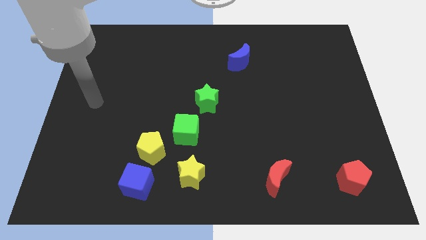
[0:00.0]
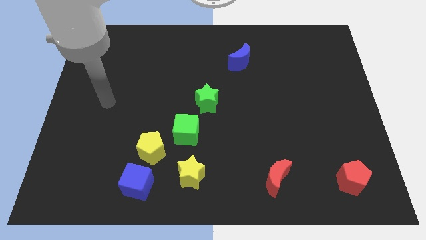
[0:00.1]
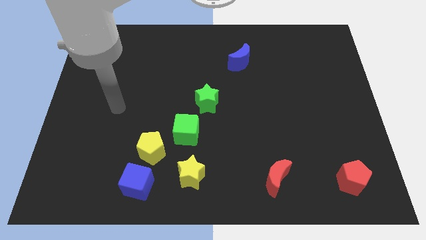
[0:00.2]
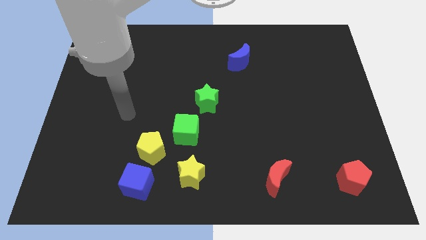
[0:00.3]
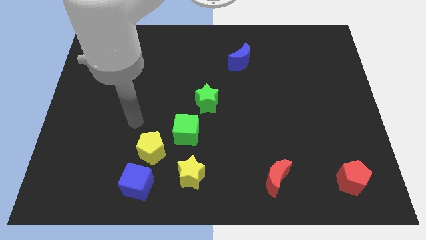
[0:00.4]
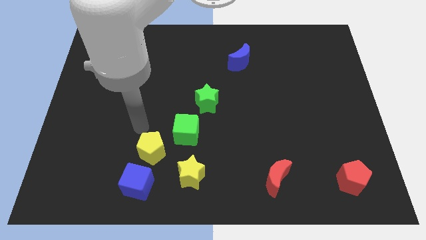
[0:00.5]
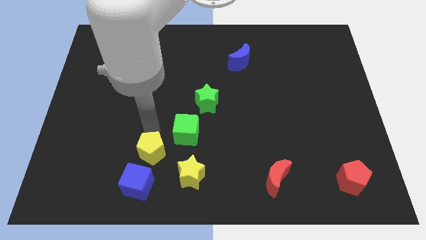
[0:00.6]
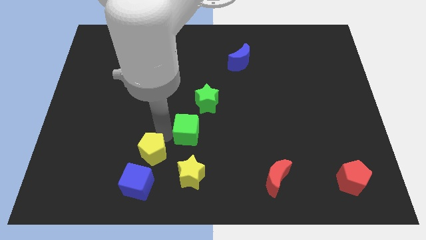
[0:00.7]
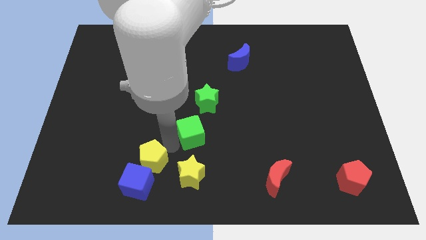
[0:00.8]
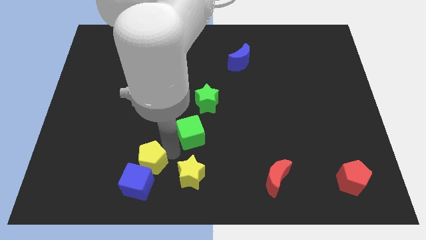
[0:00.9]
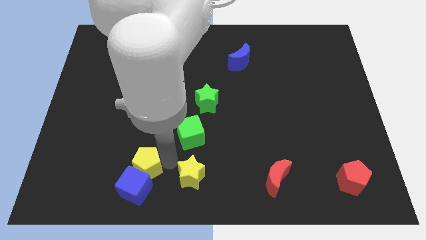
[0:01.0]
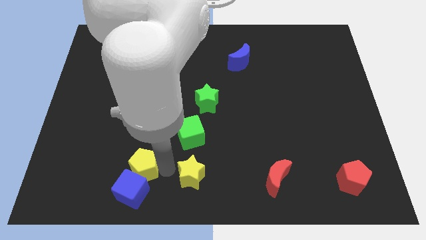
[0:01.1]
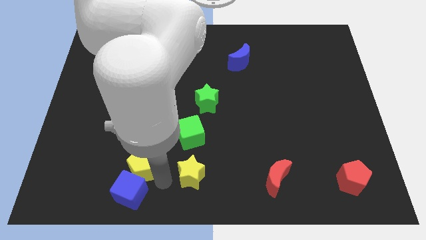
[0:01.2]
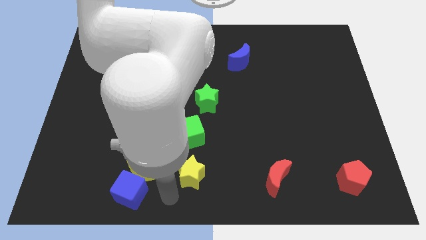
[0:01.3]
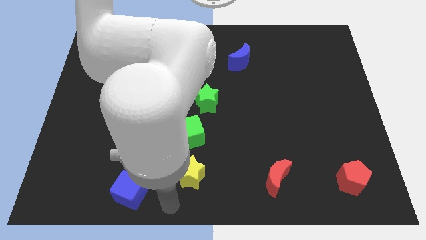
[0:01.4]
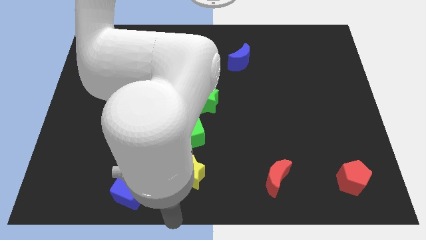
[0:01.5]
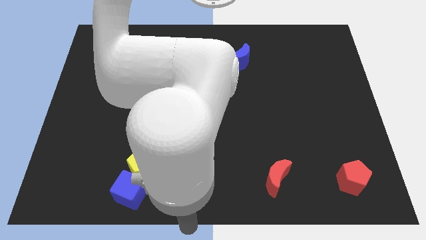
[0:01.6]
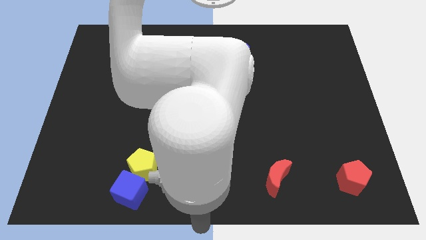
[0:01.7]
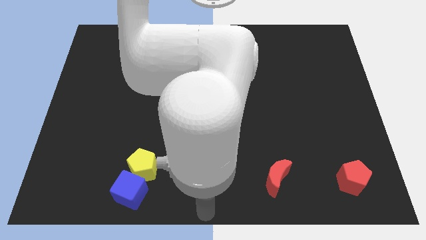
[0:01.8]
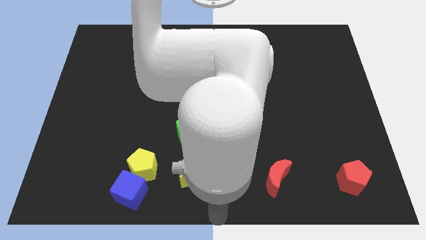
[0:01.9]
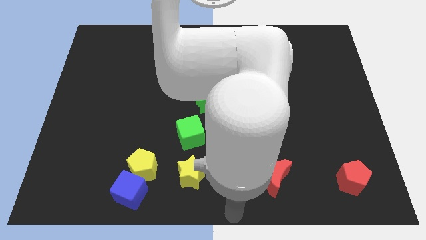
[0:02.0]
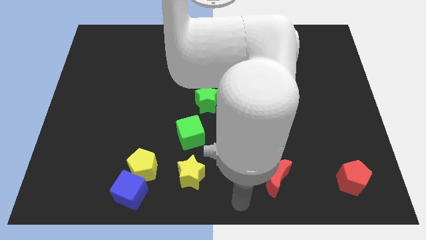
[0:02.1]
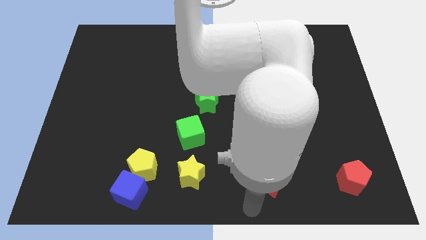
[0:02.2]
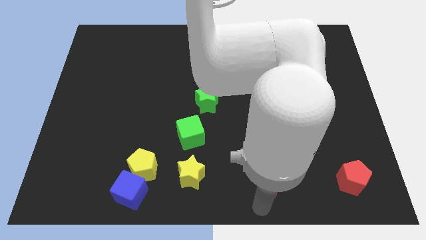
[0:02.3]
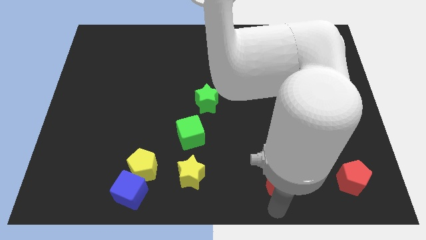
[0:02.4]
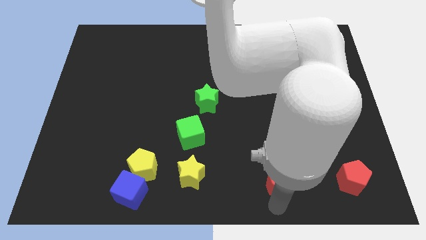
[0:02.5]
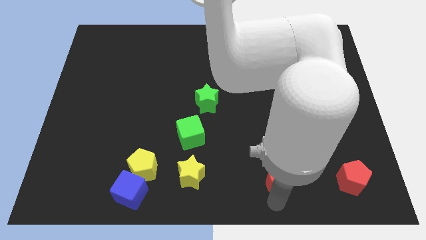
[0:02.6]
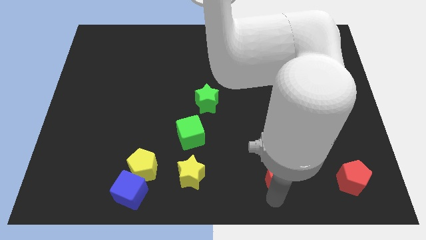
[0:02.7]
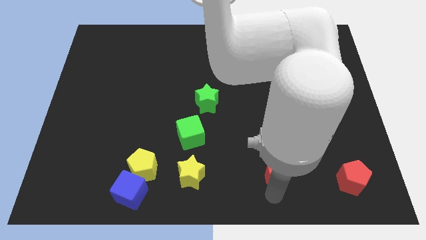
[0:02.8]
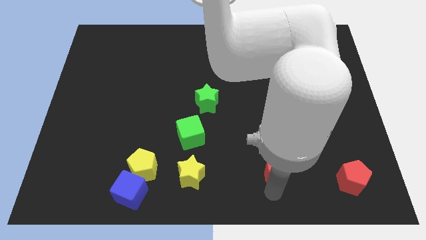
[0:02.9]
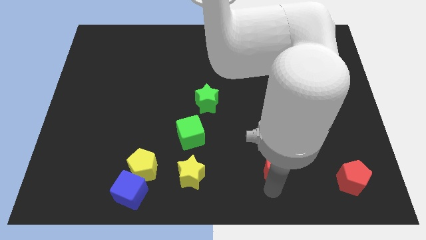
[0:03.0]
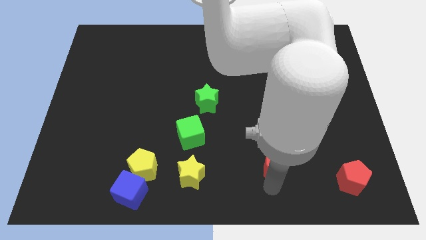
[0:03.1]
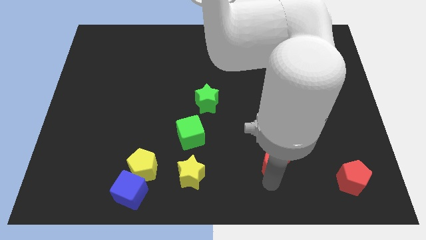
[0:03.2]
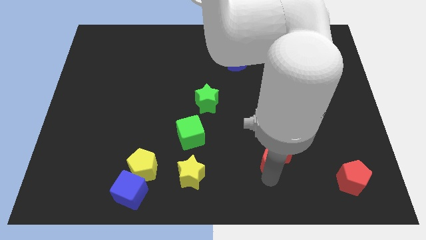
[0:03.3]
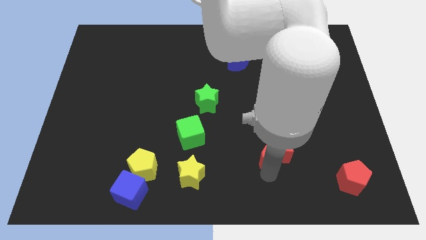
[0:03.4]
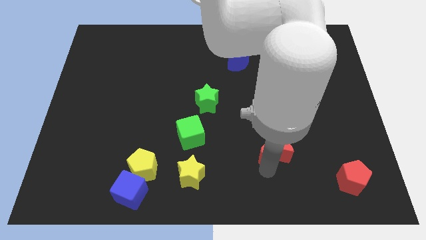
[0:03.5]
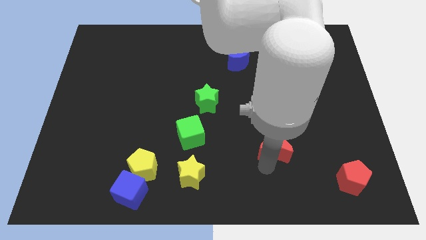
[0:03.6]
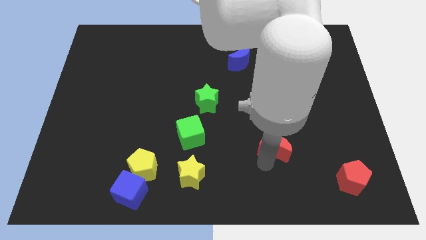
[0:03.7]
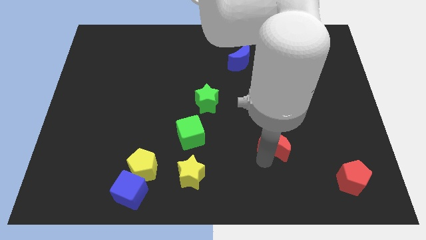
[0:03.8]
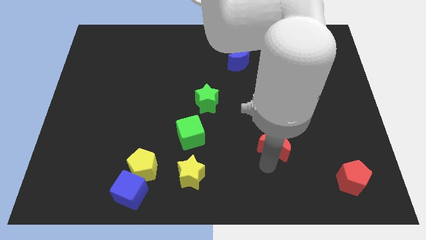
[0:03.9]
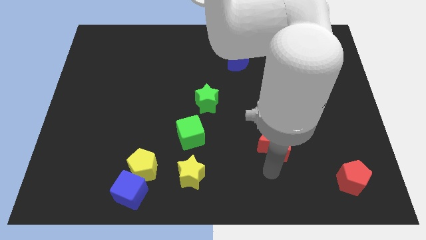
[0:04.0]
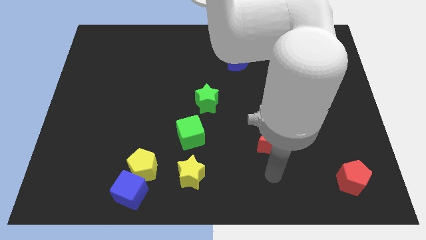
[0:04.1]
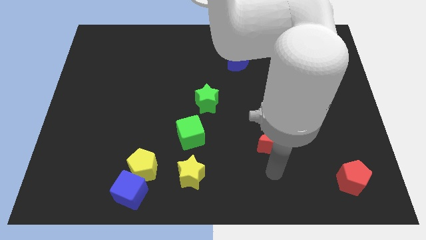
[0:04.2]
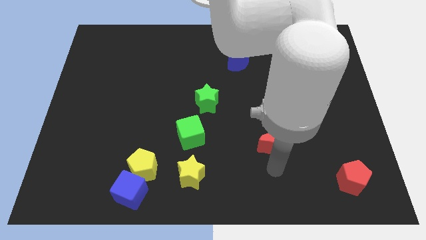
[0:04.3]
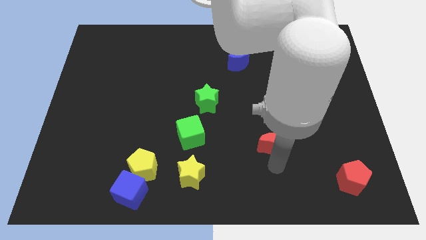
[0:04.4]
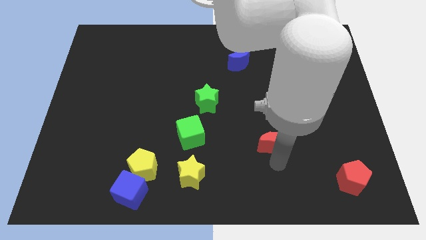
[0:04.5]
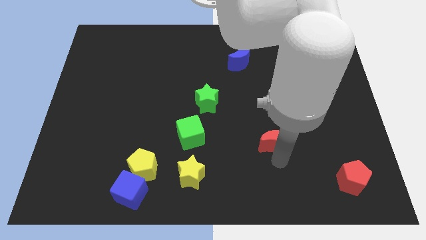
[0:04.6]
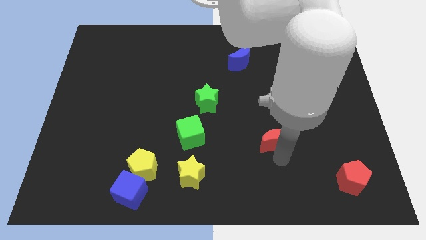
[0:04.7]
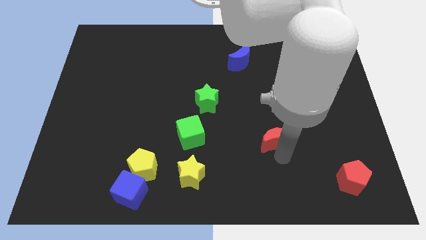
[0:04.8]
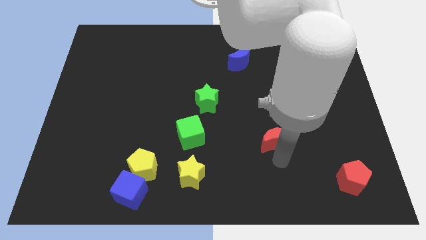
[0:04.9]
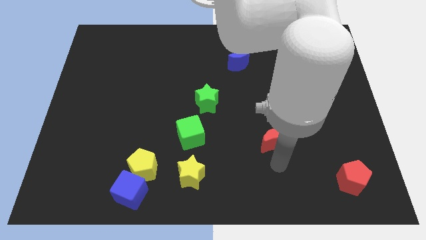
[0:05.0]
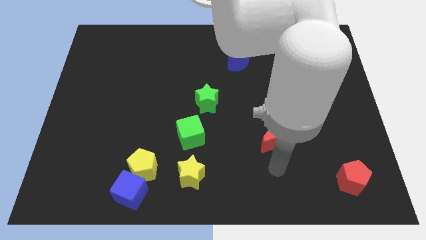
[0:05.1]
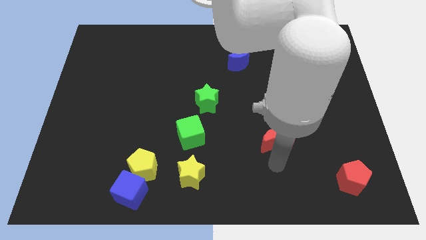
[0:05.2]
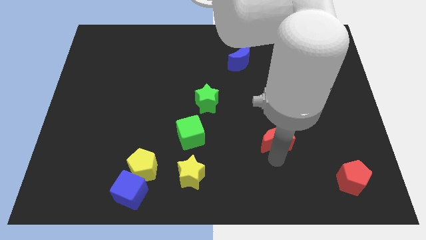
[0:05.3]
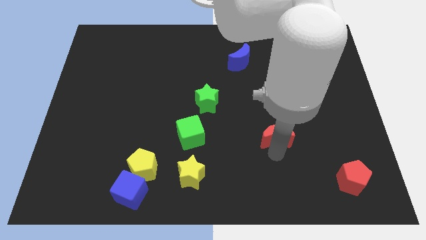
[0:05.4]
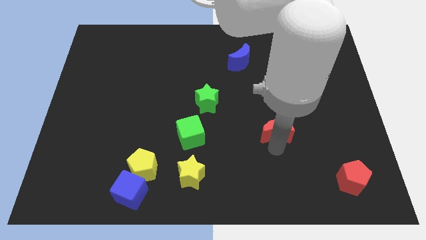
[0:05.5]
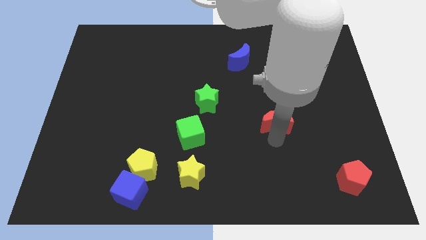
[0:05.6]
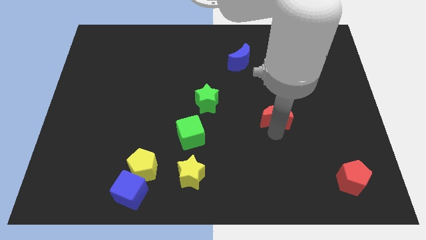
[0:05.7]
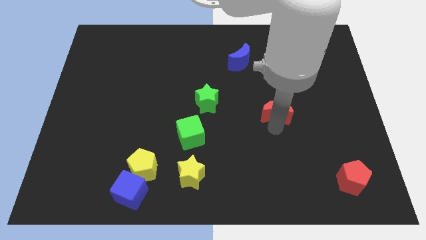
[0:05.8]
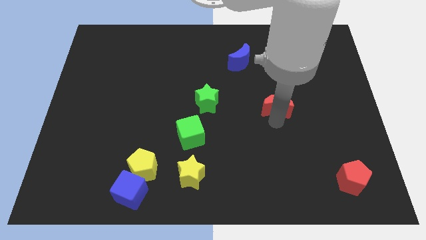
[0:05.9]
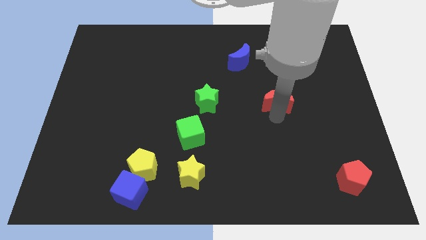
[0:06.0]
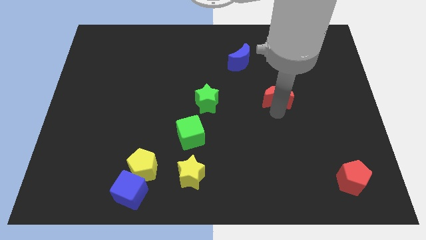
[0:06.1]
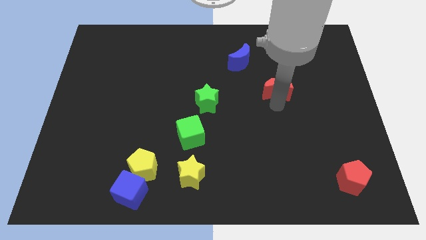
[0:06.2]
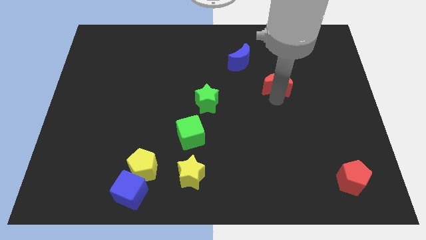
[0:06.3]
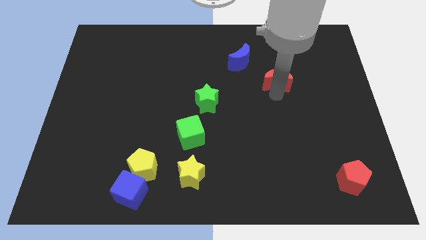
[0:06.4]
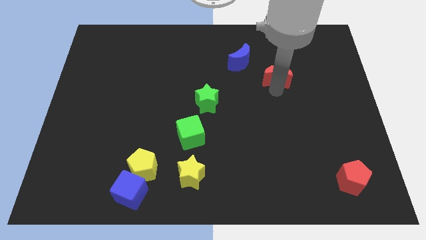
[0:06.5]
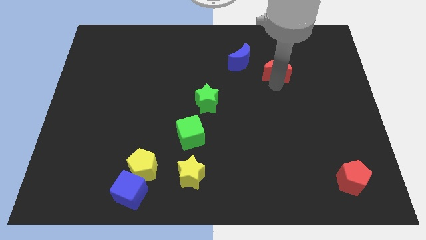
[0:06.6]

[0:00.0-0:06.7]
slide the red moon to the right of the blue moon

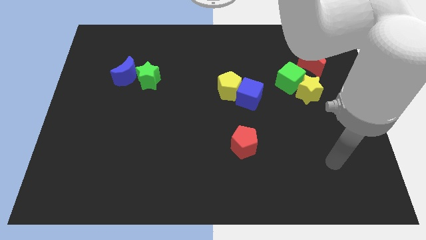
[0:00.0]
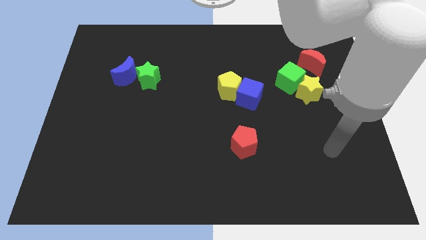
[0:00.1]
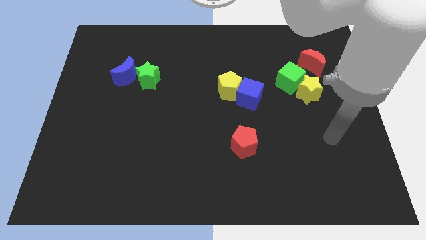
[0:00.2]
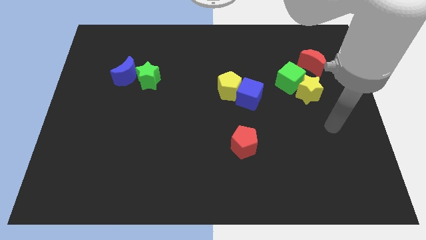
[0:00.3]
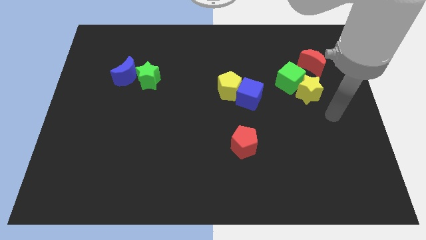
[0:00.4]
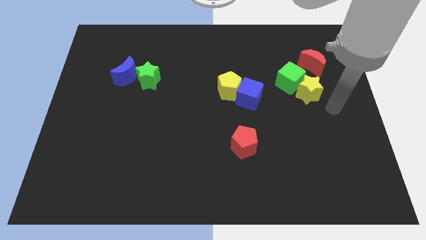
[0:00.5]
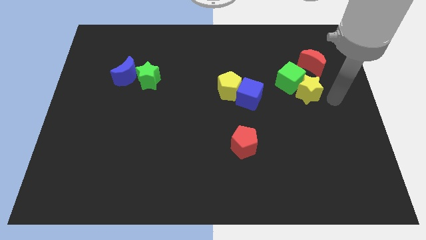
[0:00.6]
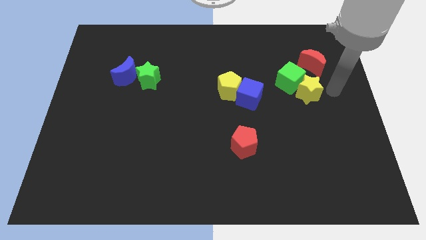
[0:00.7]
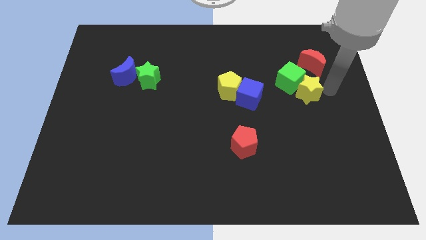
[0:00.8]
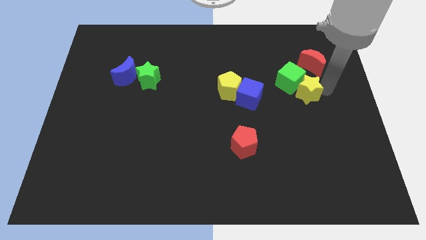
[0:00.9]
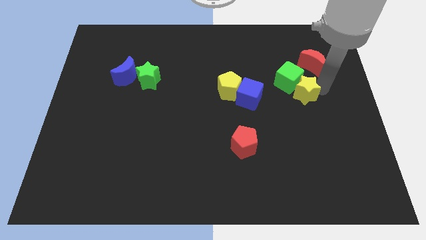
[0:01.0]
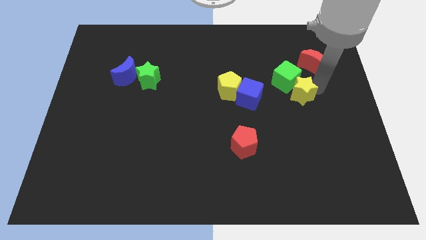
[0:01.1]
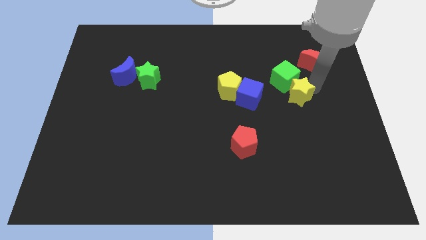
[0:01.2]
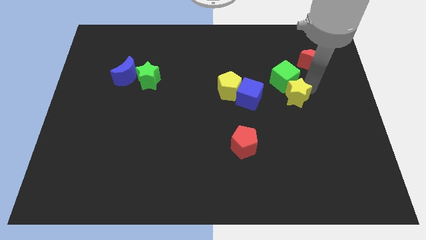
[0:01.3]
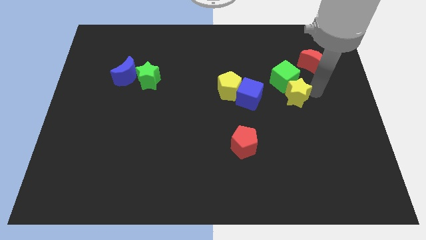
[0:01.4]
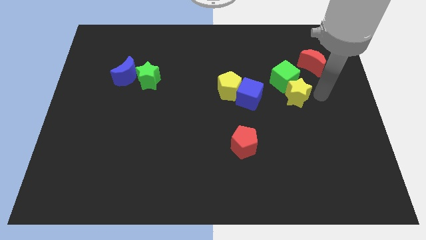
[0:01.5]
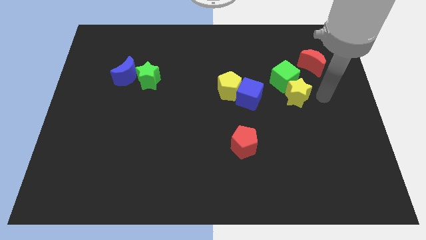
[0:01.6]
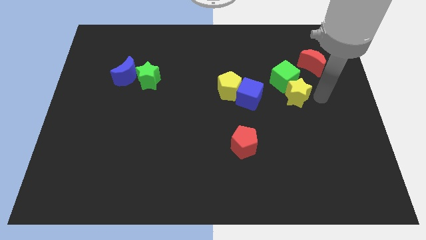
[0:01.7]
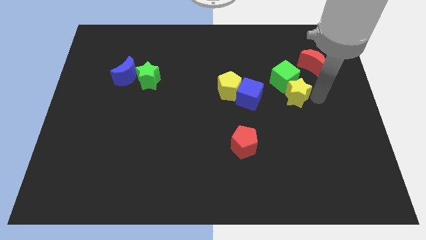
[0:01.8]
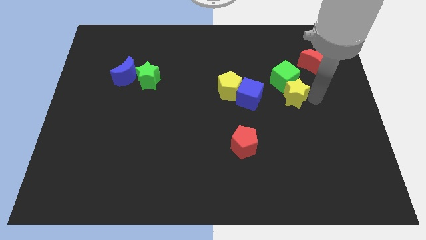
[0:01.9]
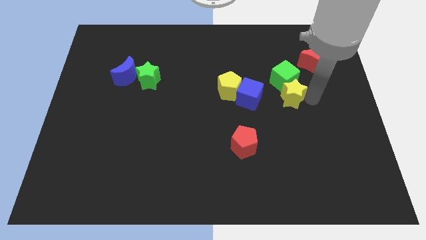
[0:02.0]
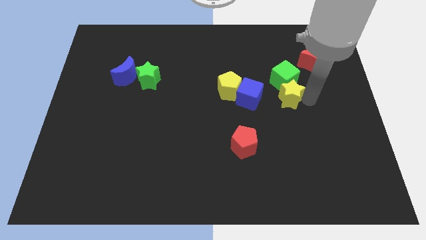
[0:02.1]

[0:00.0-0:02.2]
slide the yellow star to the bottom left of the green cube
